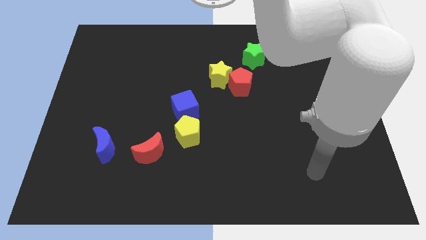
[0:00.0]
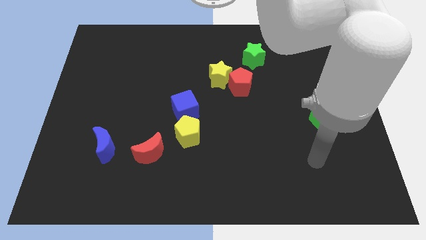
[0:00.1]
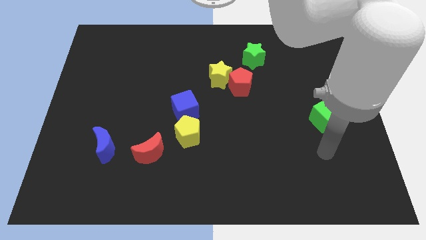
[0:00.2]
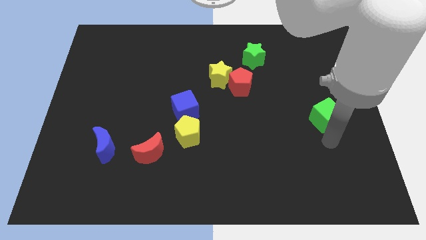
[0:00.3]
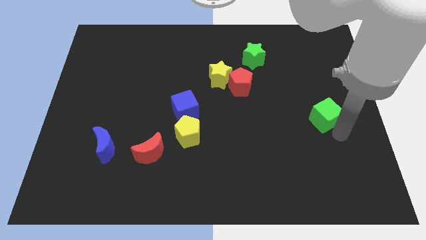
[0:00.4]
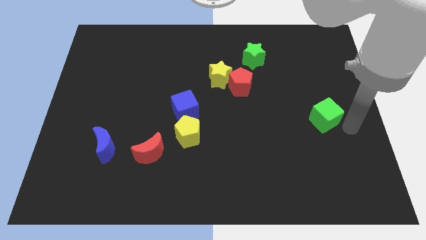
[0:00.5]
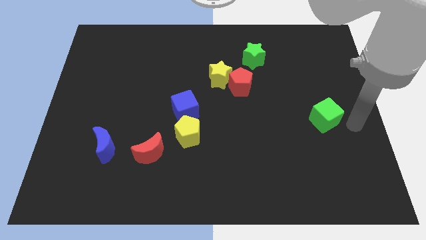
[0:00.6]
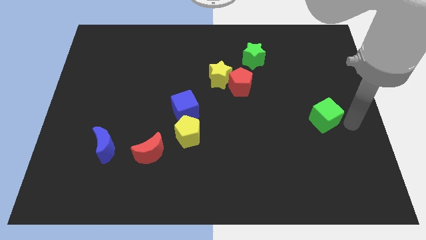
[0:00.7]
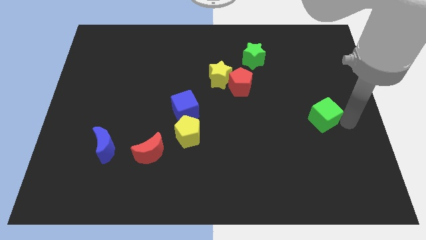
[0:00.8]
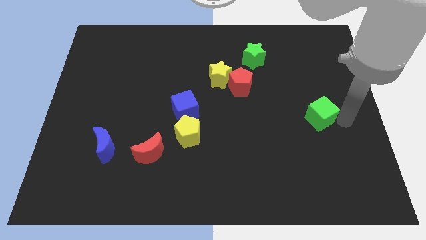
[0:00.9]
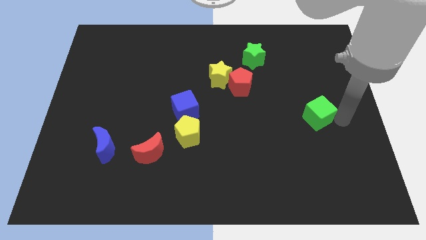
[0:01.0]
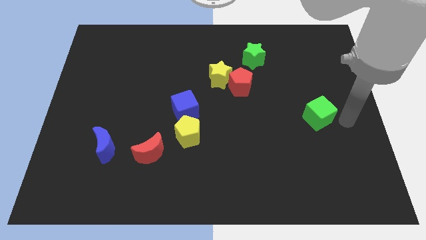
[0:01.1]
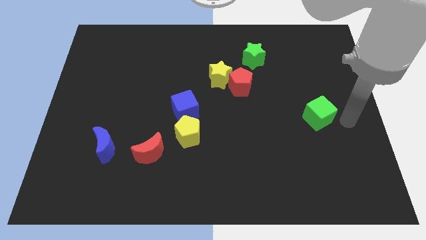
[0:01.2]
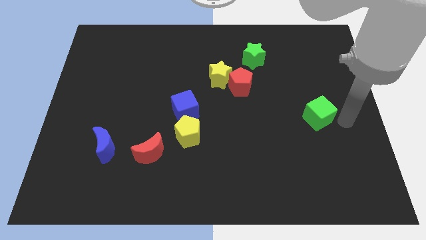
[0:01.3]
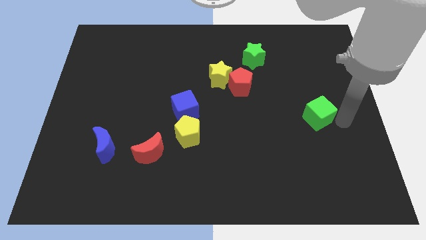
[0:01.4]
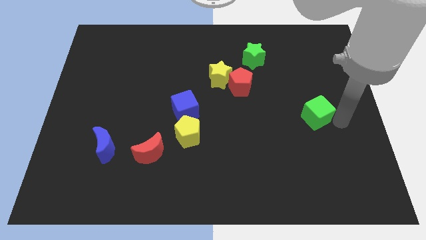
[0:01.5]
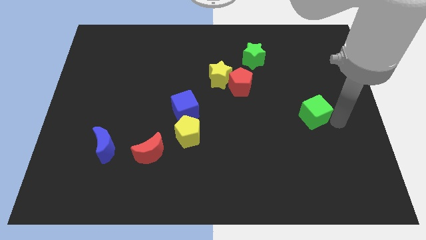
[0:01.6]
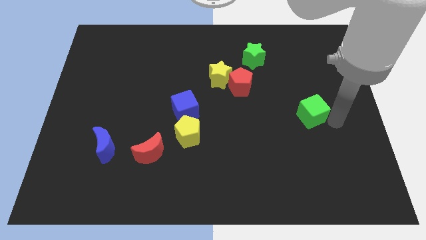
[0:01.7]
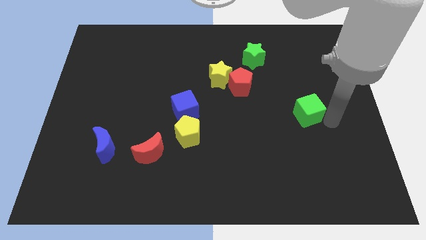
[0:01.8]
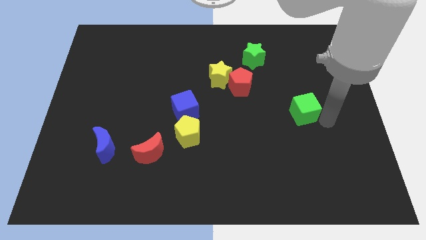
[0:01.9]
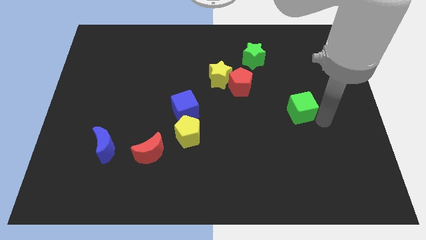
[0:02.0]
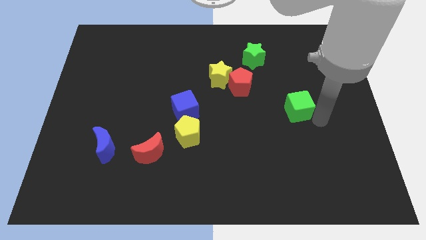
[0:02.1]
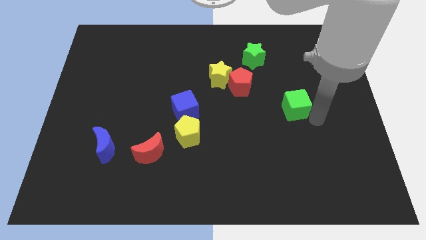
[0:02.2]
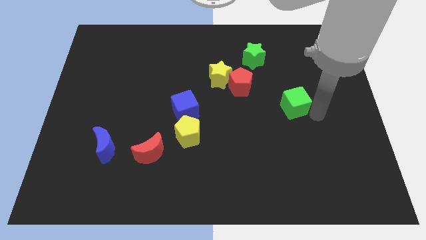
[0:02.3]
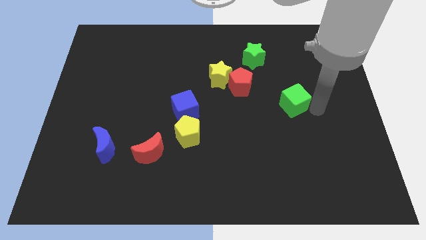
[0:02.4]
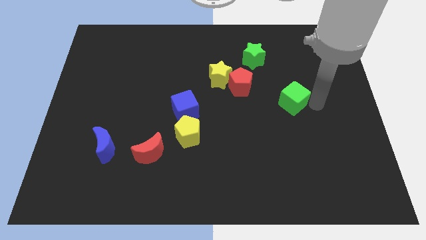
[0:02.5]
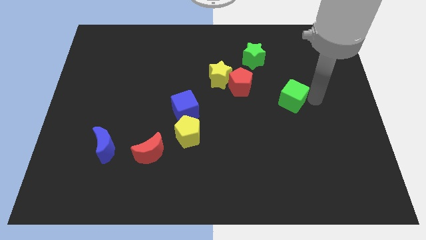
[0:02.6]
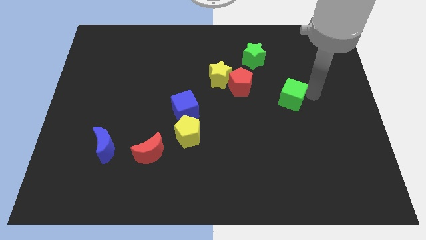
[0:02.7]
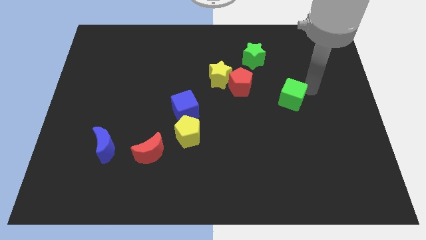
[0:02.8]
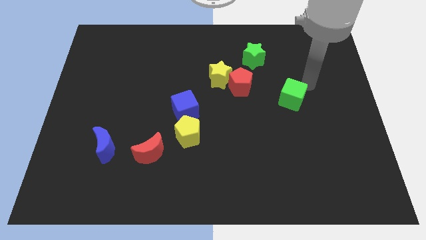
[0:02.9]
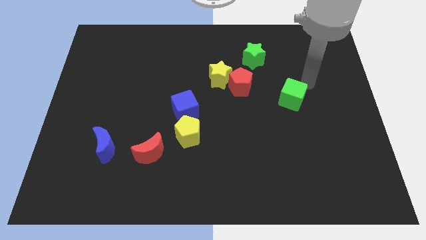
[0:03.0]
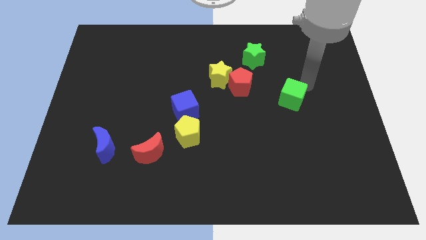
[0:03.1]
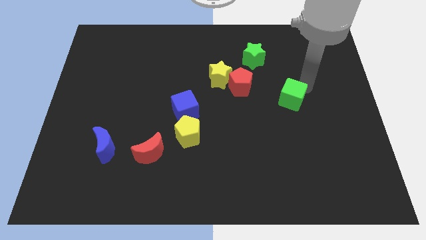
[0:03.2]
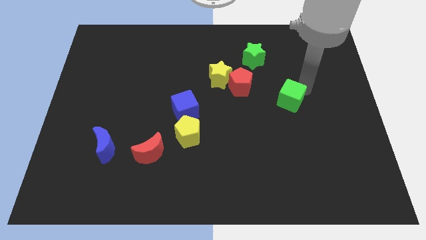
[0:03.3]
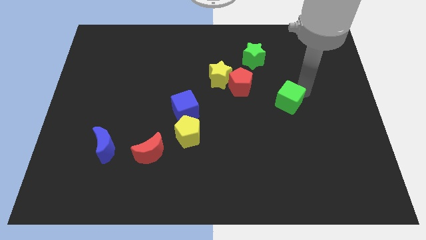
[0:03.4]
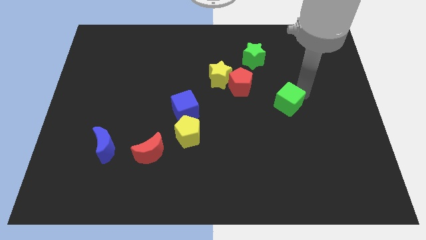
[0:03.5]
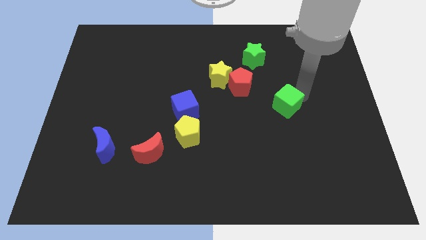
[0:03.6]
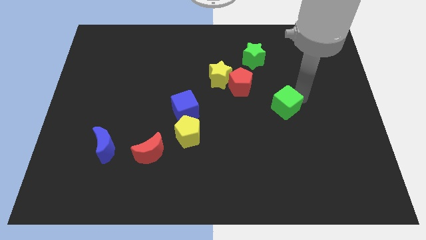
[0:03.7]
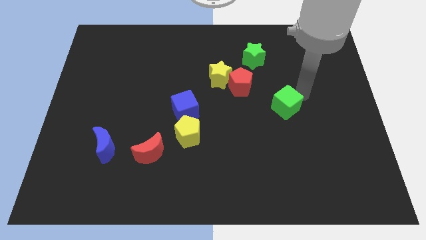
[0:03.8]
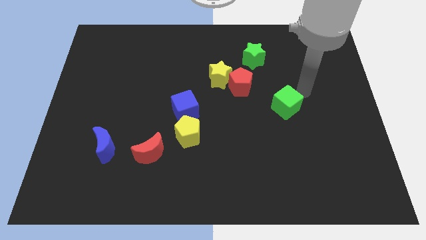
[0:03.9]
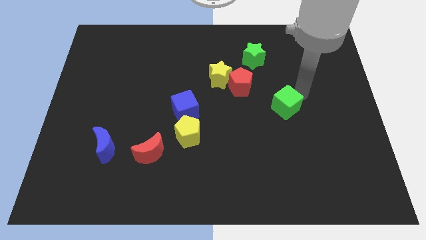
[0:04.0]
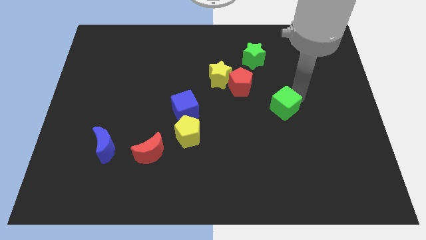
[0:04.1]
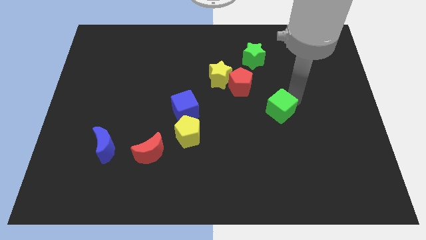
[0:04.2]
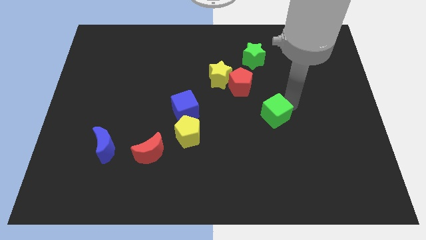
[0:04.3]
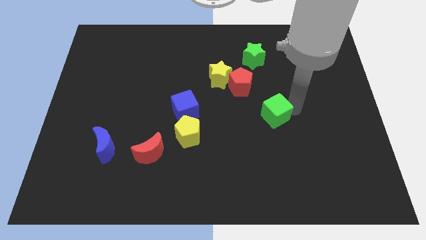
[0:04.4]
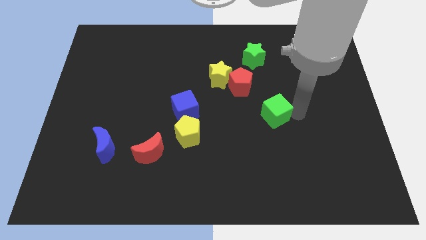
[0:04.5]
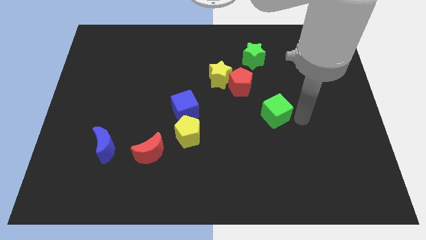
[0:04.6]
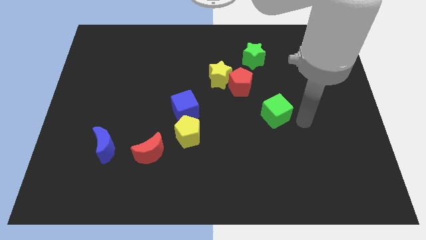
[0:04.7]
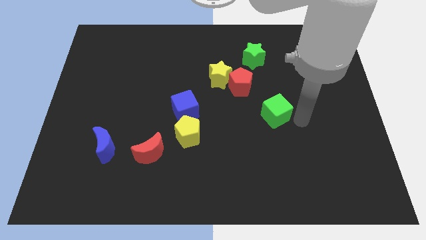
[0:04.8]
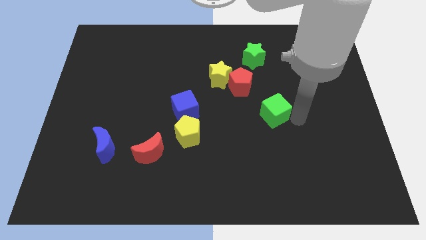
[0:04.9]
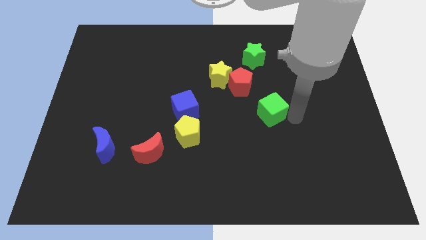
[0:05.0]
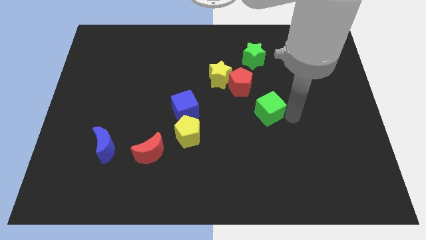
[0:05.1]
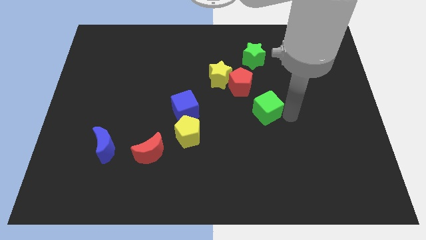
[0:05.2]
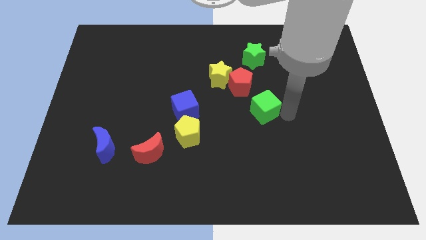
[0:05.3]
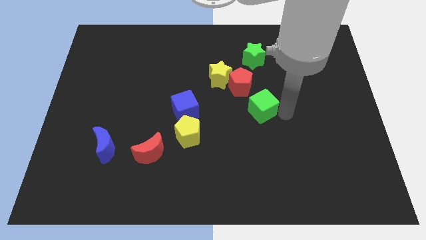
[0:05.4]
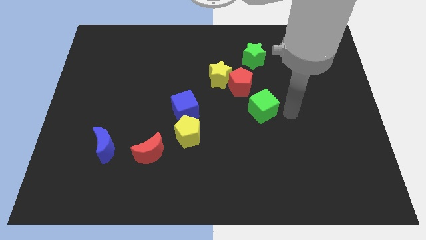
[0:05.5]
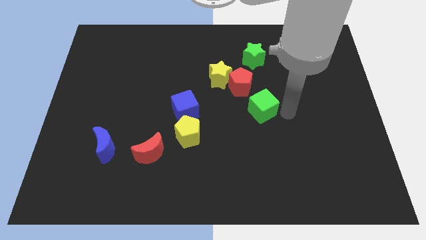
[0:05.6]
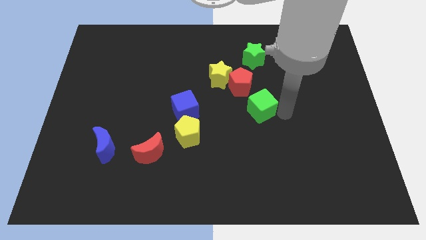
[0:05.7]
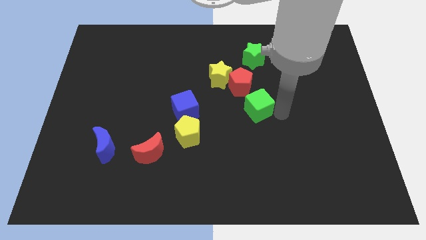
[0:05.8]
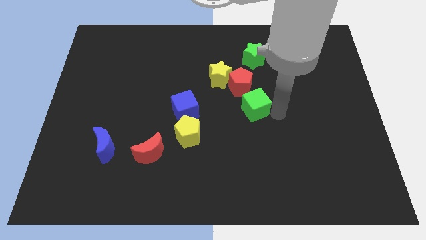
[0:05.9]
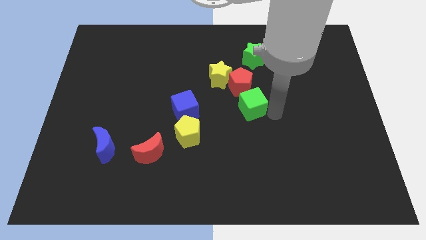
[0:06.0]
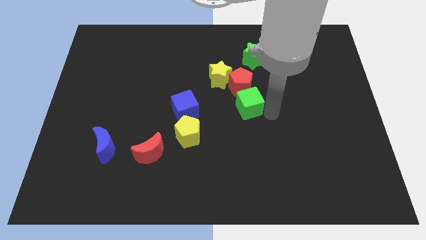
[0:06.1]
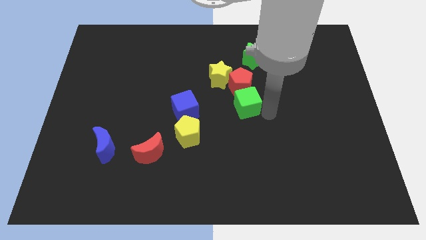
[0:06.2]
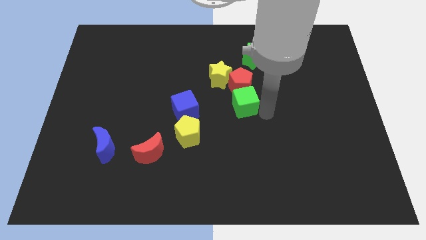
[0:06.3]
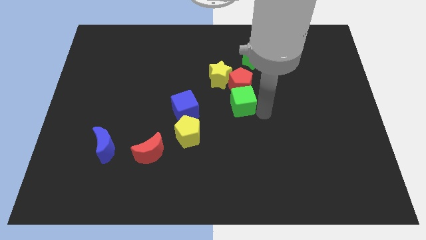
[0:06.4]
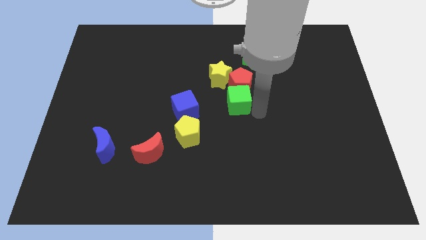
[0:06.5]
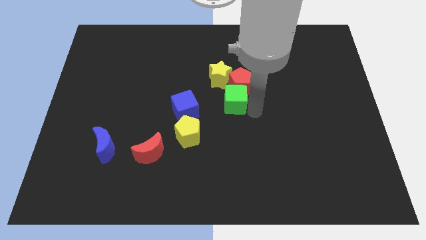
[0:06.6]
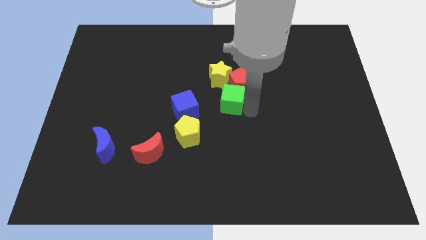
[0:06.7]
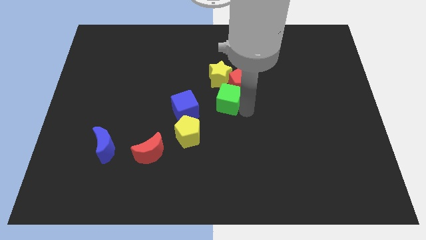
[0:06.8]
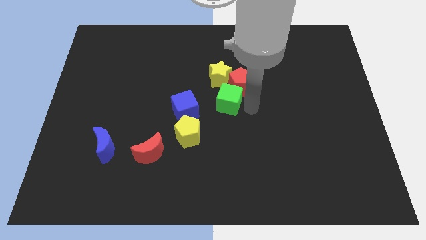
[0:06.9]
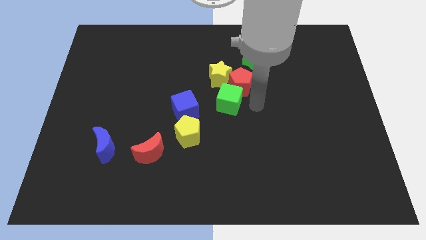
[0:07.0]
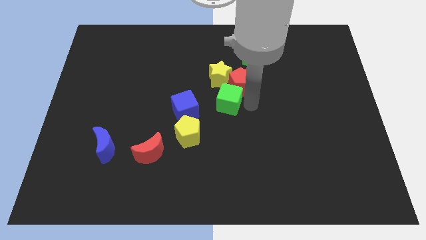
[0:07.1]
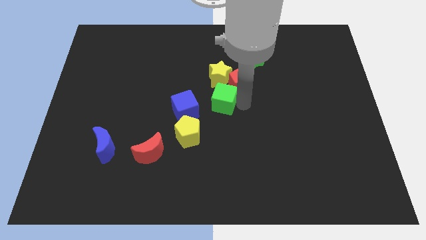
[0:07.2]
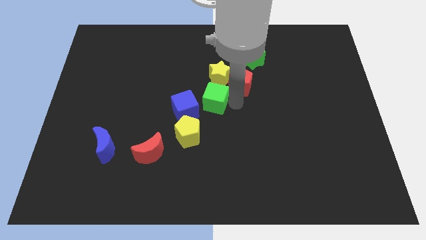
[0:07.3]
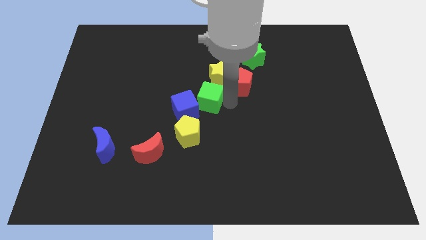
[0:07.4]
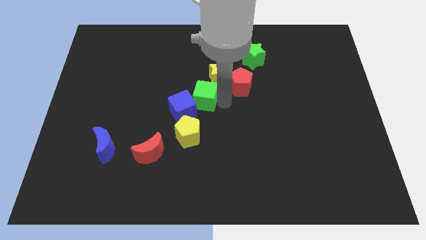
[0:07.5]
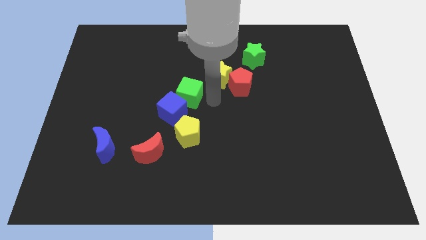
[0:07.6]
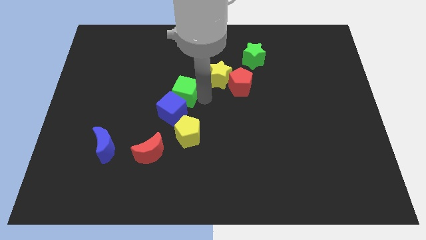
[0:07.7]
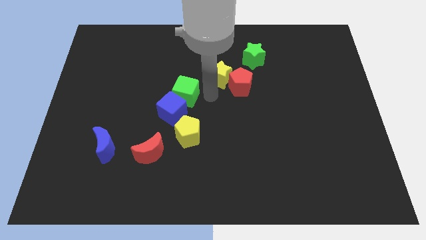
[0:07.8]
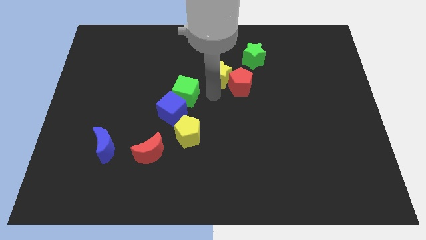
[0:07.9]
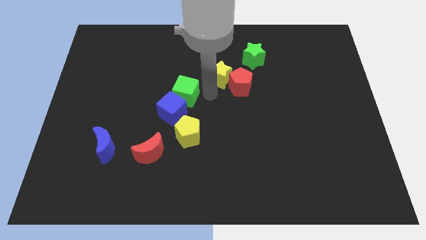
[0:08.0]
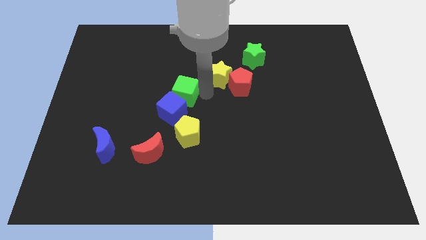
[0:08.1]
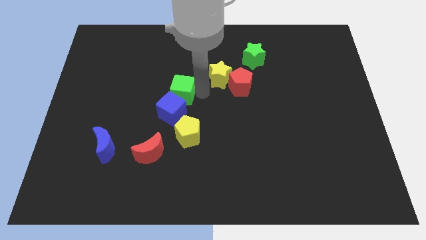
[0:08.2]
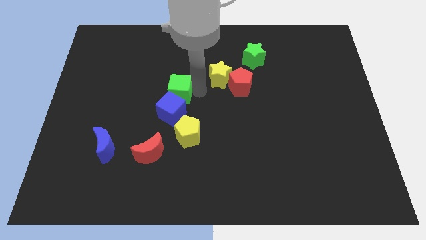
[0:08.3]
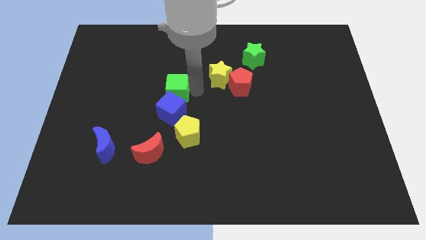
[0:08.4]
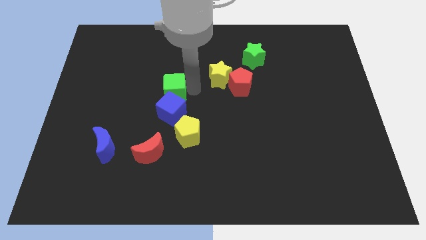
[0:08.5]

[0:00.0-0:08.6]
slide the green cube to the top left side of the blue cube
